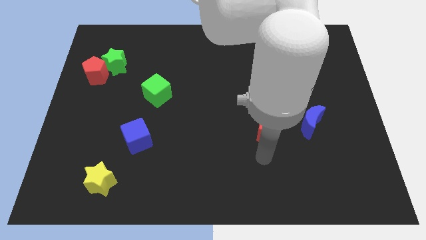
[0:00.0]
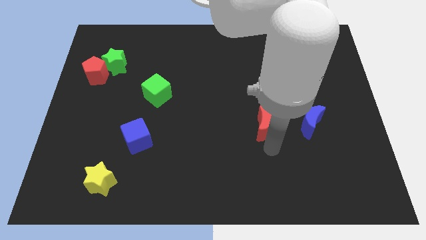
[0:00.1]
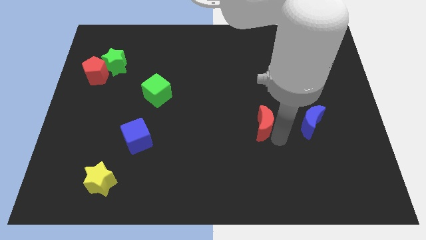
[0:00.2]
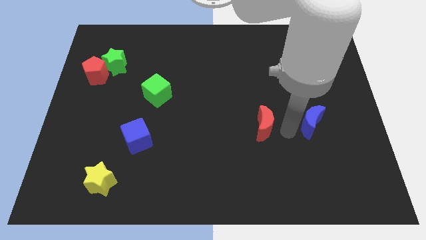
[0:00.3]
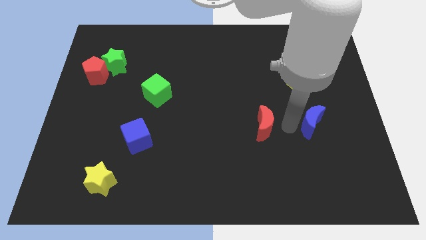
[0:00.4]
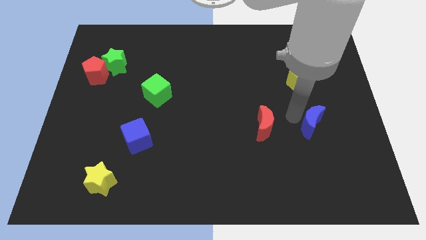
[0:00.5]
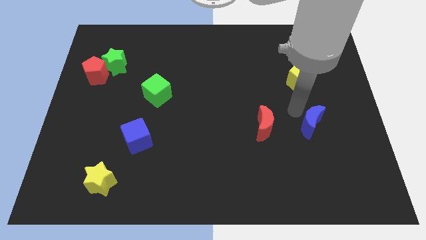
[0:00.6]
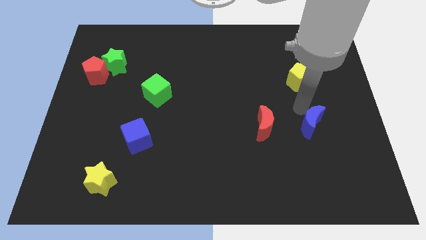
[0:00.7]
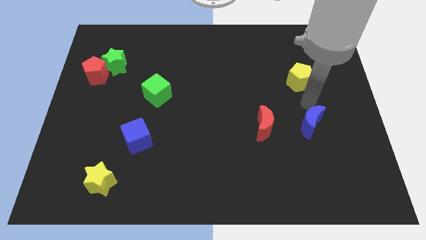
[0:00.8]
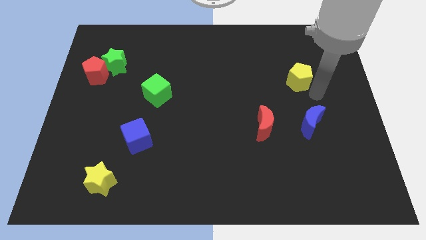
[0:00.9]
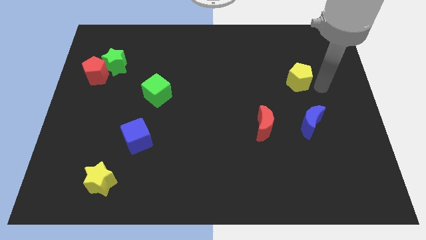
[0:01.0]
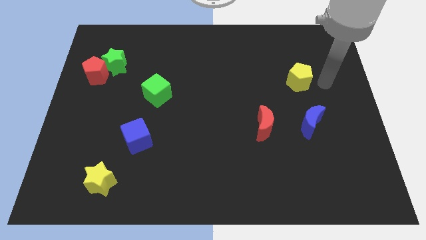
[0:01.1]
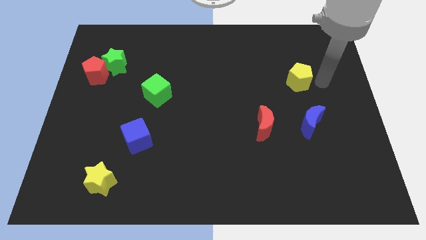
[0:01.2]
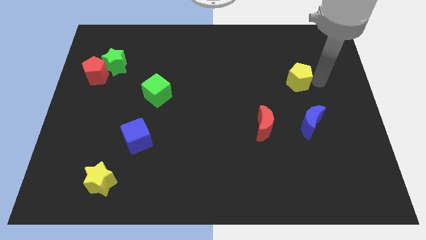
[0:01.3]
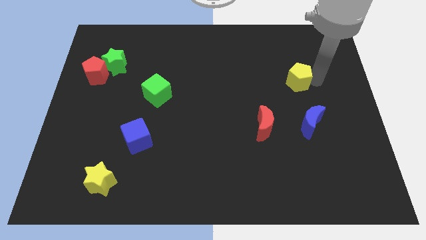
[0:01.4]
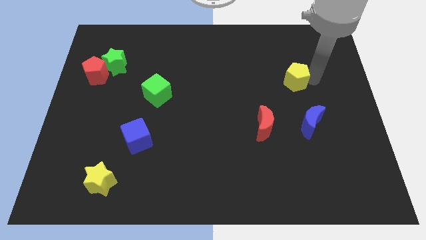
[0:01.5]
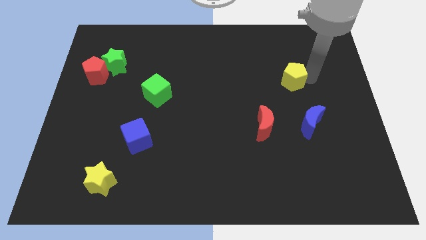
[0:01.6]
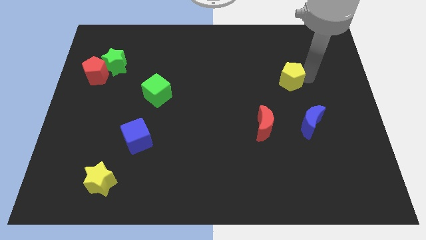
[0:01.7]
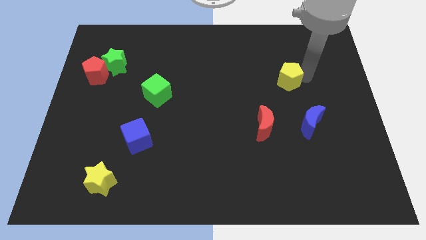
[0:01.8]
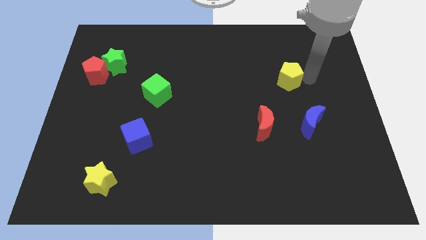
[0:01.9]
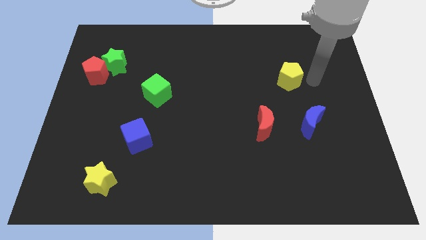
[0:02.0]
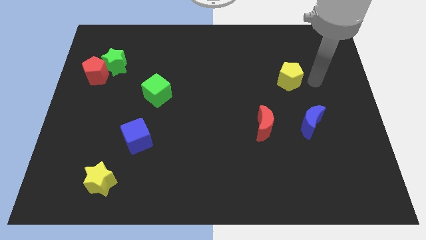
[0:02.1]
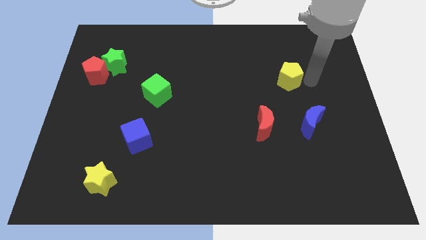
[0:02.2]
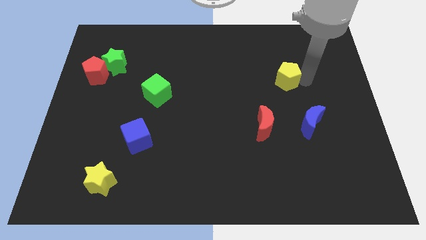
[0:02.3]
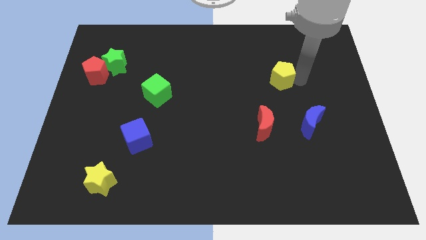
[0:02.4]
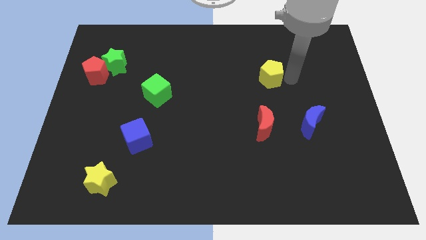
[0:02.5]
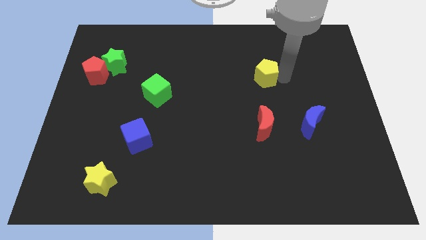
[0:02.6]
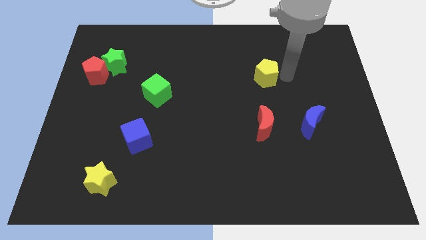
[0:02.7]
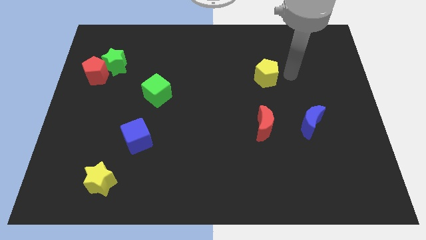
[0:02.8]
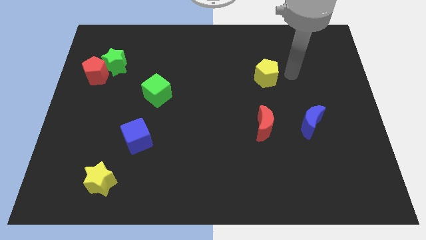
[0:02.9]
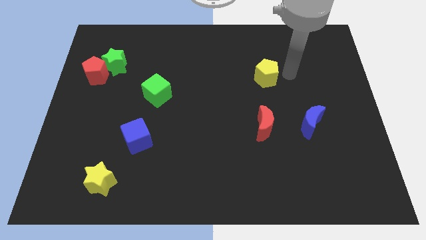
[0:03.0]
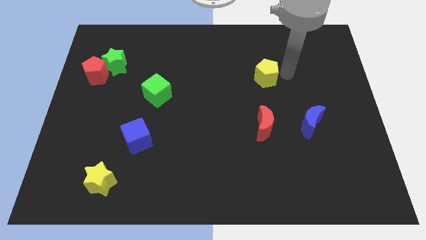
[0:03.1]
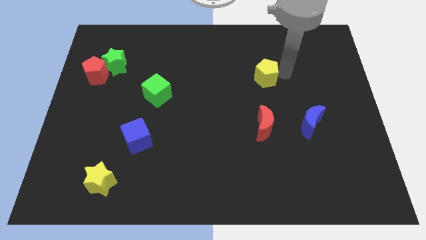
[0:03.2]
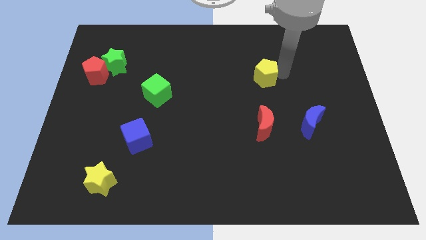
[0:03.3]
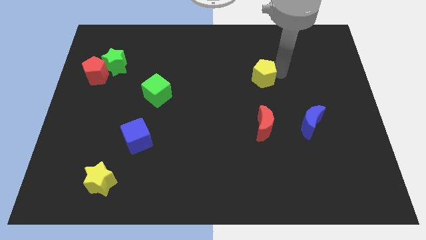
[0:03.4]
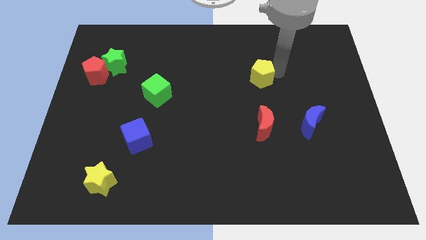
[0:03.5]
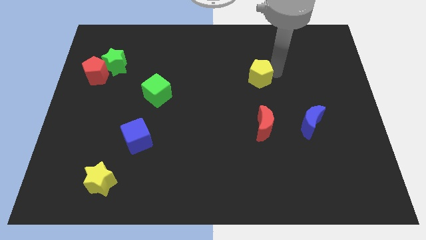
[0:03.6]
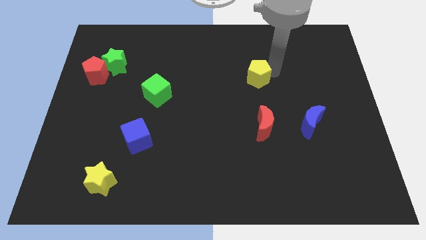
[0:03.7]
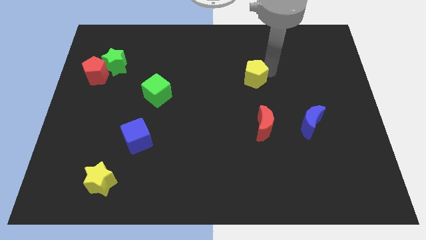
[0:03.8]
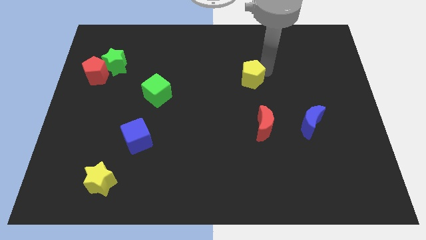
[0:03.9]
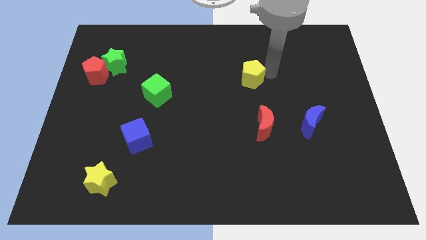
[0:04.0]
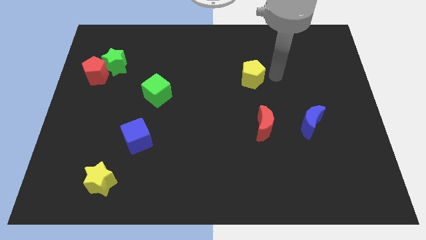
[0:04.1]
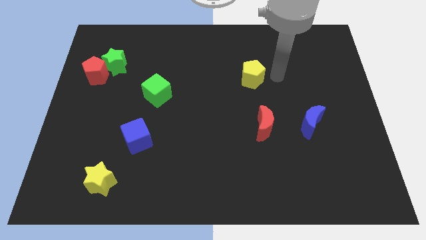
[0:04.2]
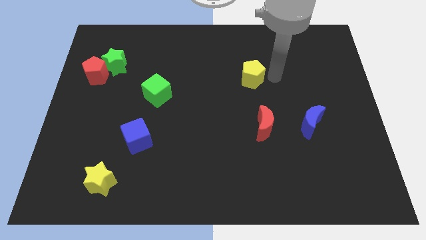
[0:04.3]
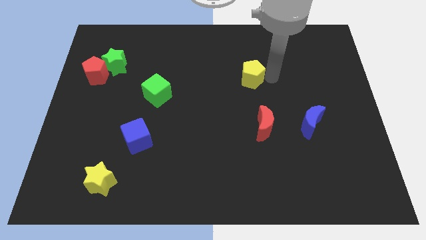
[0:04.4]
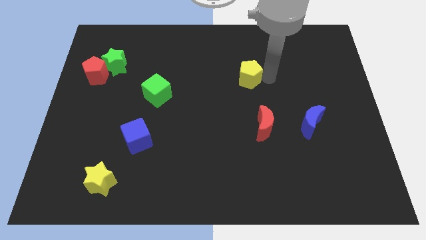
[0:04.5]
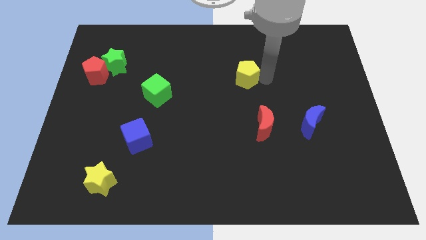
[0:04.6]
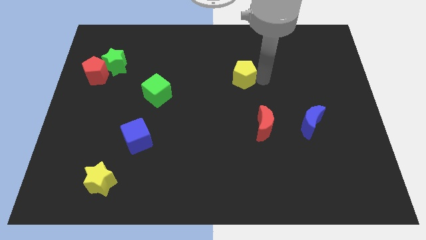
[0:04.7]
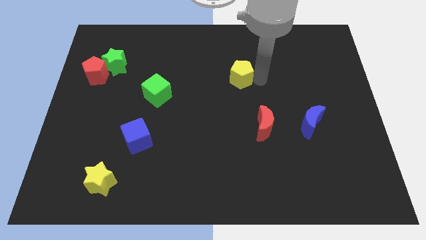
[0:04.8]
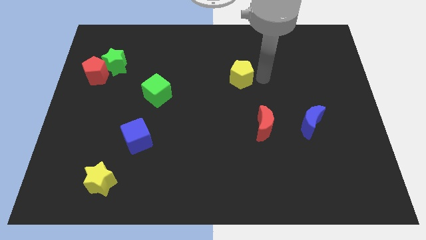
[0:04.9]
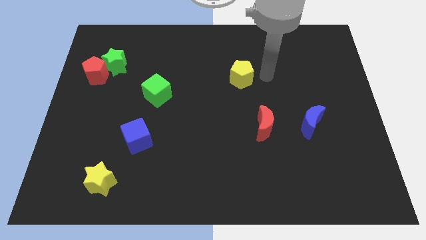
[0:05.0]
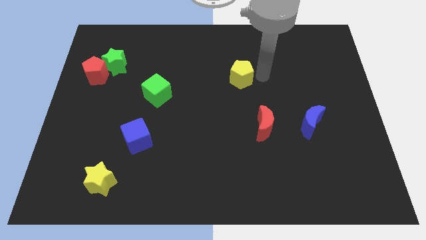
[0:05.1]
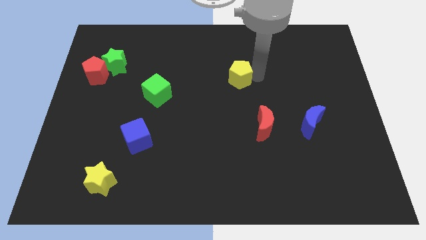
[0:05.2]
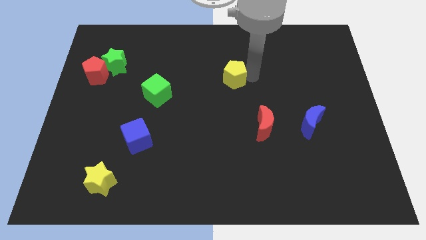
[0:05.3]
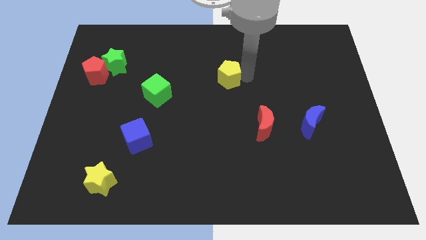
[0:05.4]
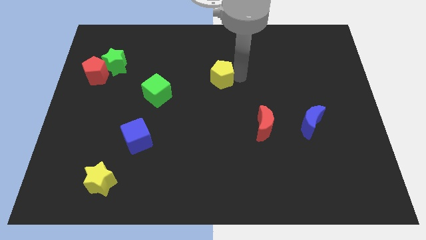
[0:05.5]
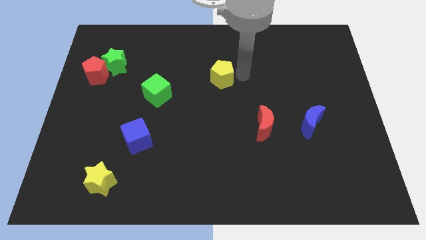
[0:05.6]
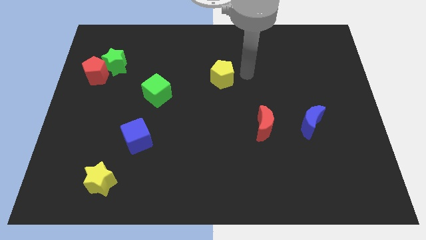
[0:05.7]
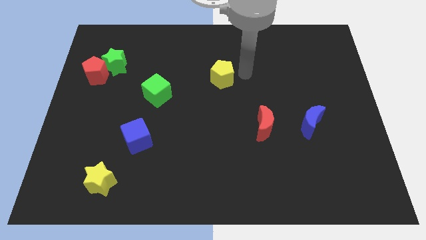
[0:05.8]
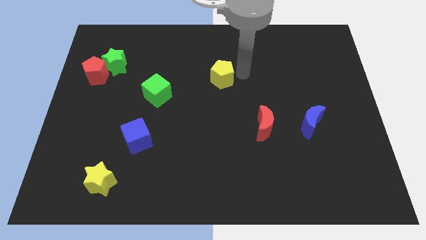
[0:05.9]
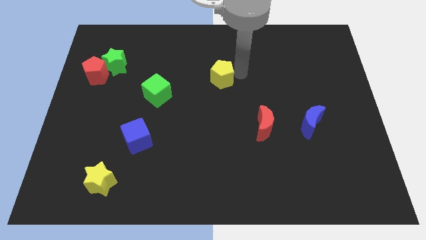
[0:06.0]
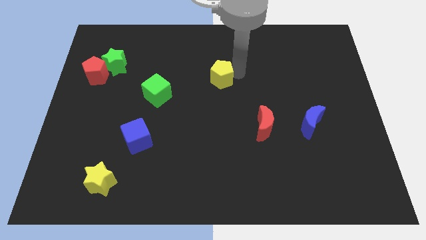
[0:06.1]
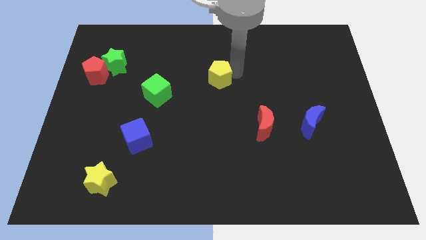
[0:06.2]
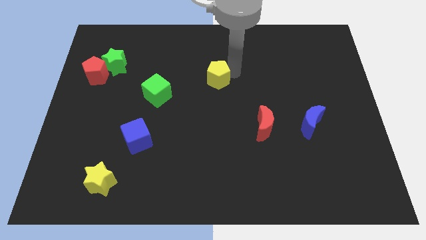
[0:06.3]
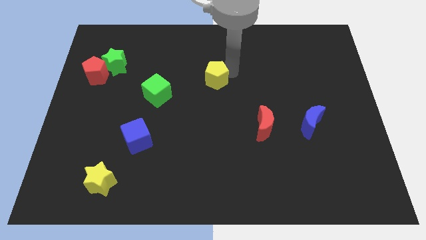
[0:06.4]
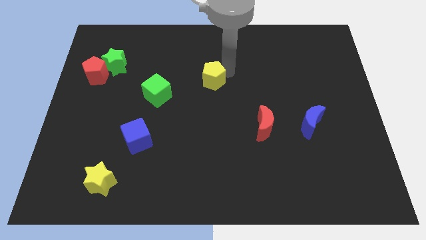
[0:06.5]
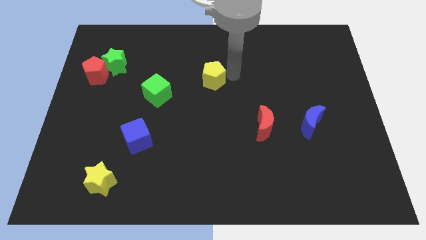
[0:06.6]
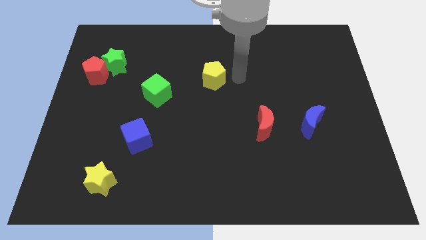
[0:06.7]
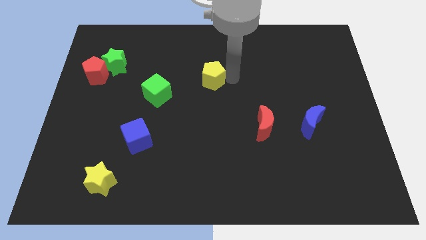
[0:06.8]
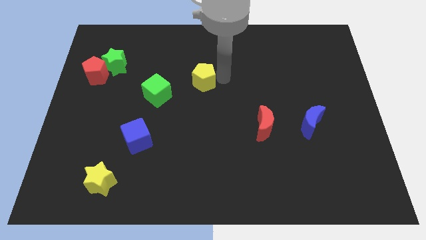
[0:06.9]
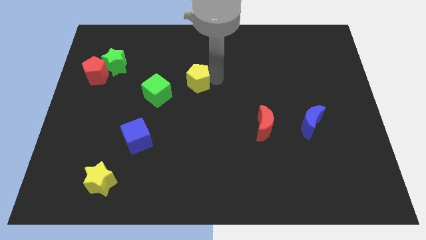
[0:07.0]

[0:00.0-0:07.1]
push the yellow pentagon diagonally up and to the right of the green cube
